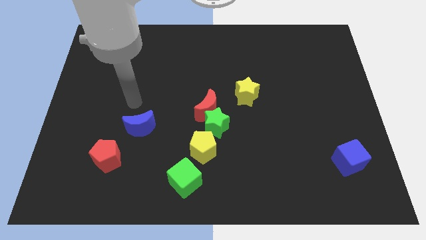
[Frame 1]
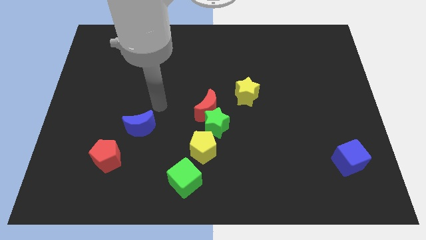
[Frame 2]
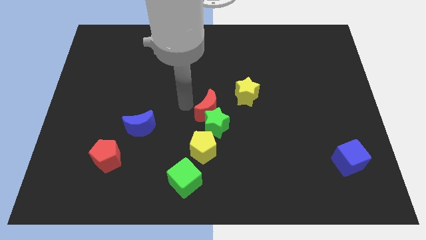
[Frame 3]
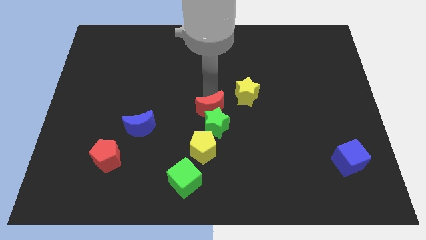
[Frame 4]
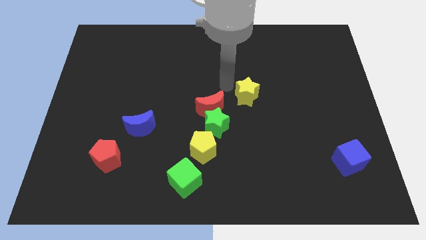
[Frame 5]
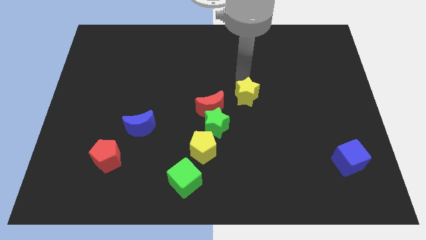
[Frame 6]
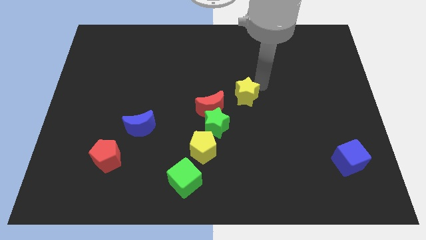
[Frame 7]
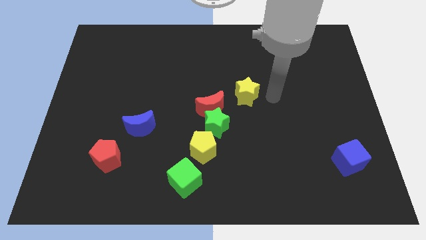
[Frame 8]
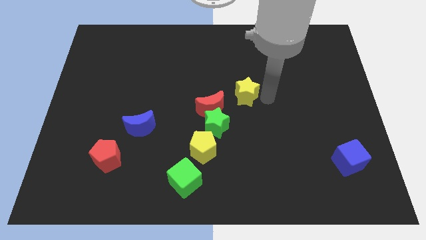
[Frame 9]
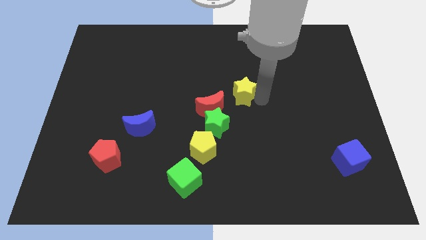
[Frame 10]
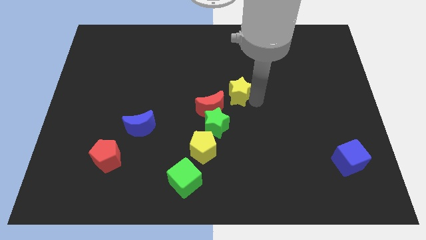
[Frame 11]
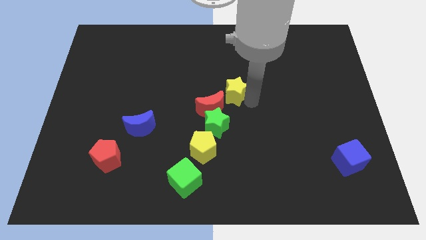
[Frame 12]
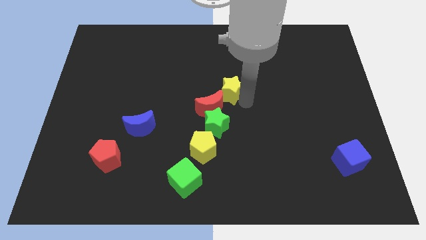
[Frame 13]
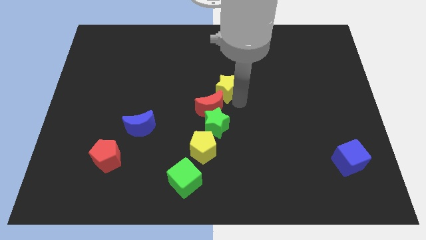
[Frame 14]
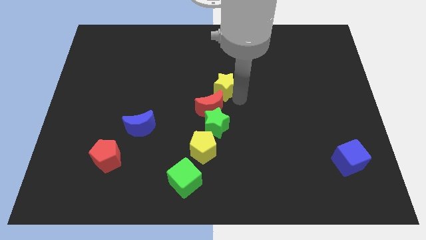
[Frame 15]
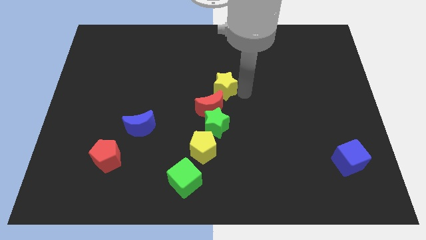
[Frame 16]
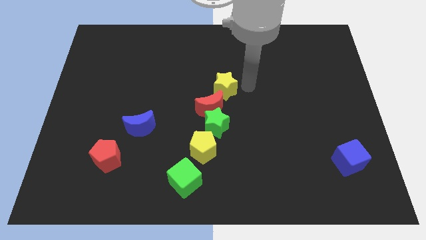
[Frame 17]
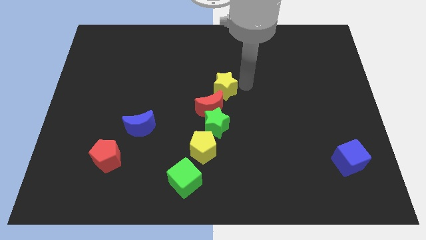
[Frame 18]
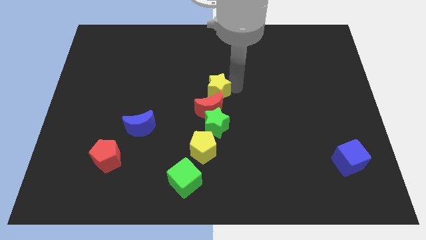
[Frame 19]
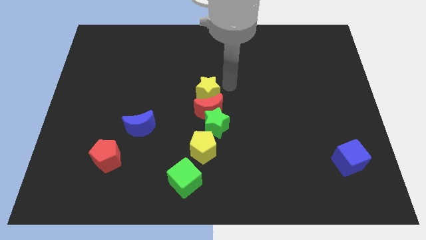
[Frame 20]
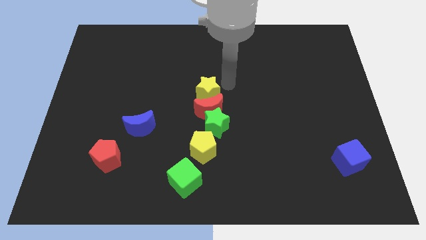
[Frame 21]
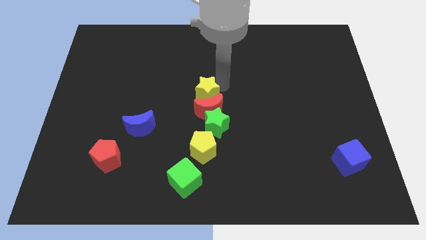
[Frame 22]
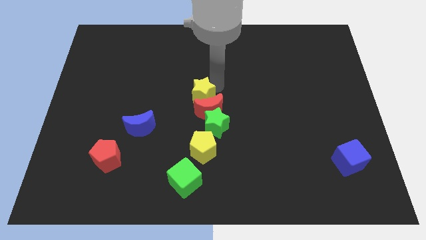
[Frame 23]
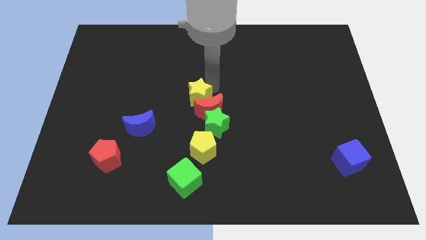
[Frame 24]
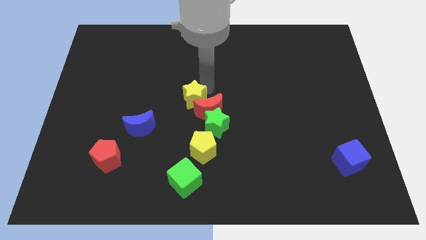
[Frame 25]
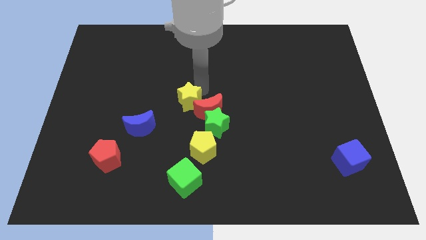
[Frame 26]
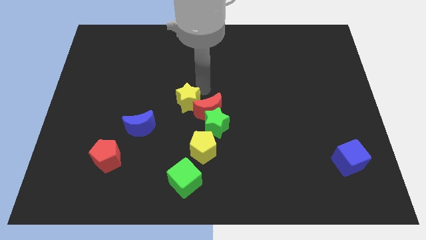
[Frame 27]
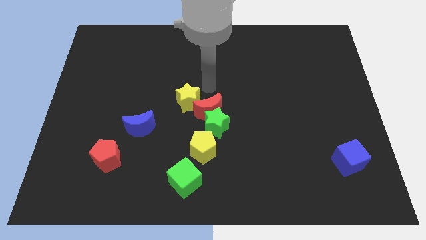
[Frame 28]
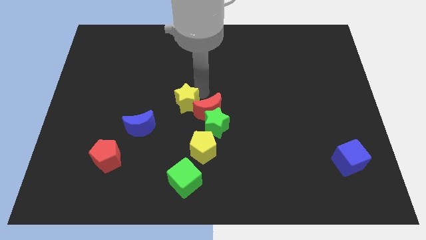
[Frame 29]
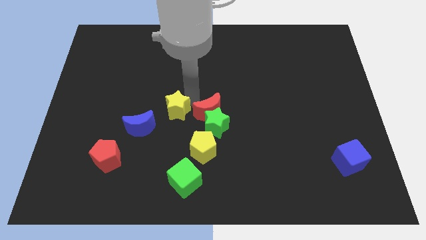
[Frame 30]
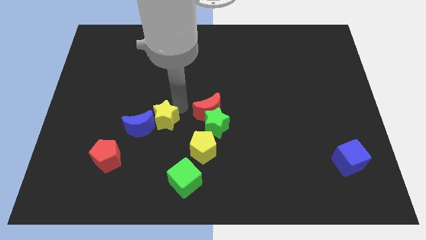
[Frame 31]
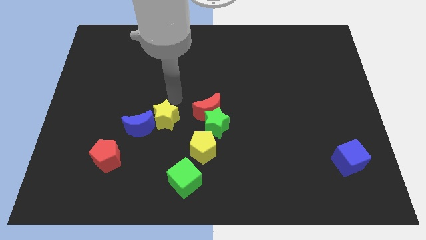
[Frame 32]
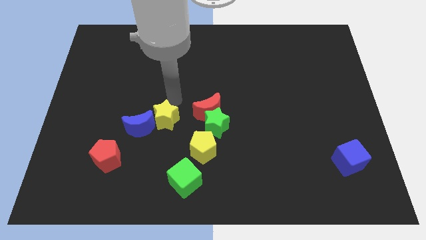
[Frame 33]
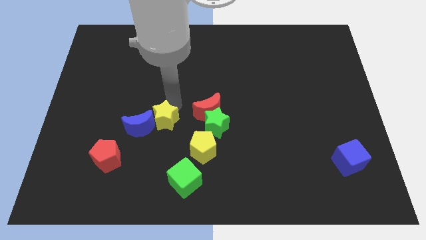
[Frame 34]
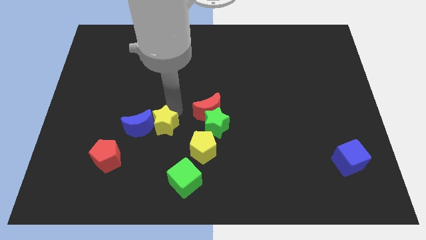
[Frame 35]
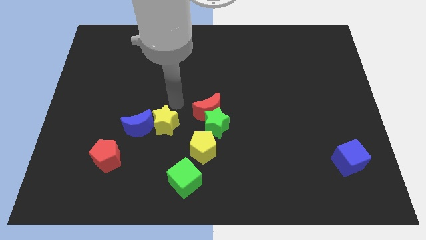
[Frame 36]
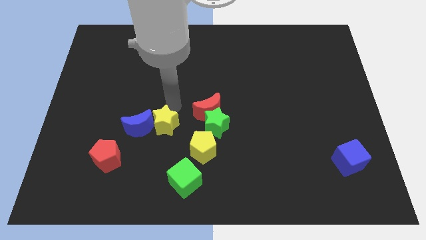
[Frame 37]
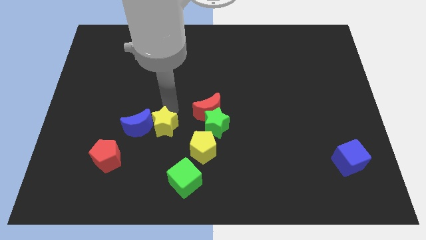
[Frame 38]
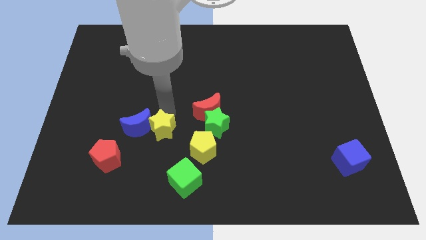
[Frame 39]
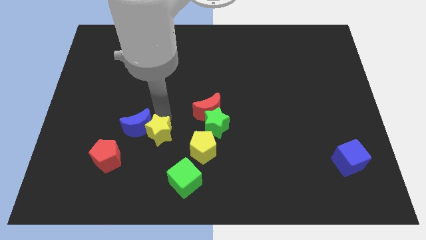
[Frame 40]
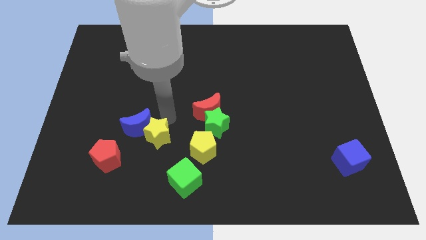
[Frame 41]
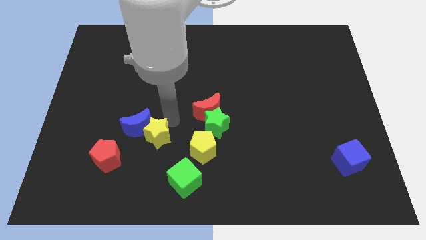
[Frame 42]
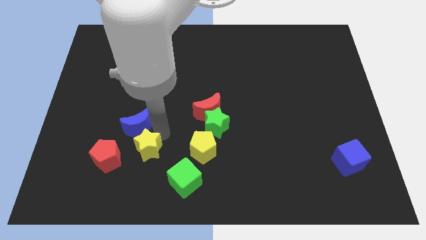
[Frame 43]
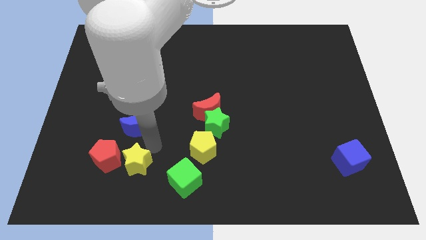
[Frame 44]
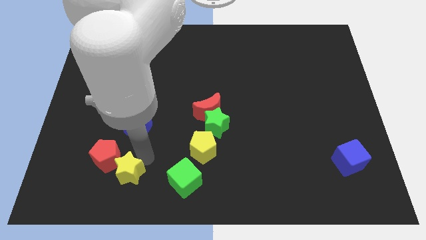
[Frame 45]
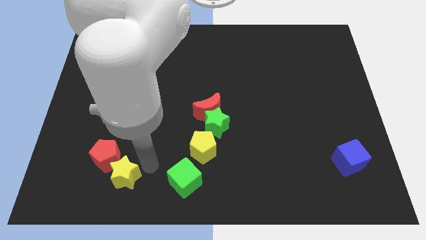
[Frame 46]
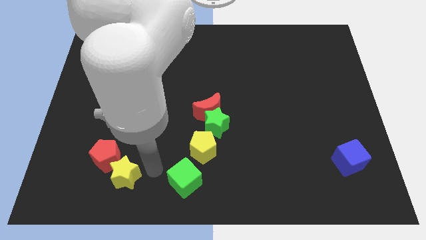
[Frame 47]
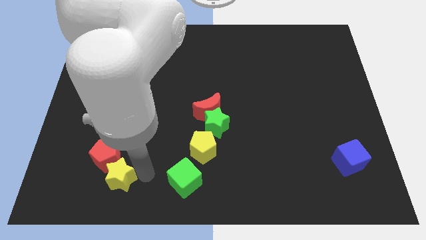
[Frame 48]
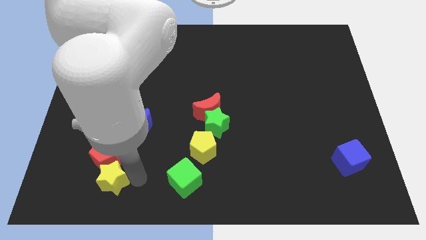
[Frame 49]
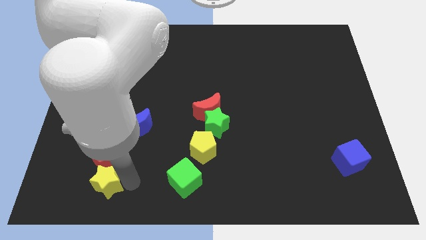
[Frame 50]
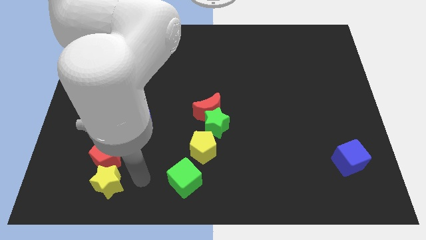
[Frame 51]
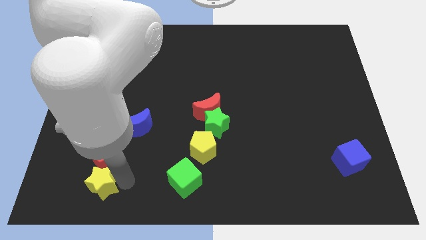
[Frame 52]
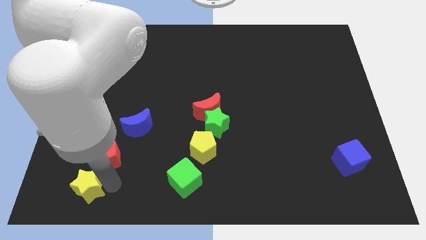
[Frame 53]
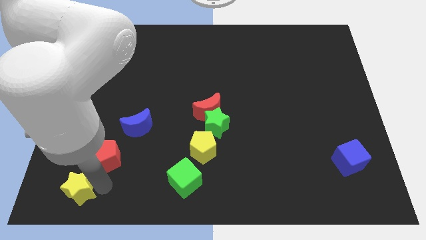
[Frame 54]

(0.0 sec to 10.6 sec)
push the yellow star to the bottom left corner
